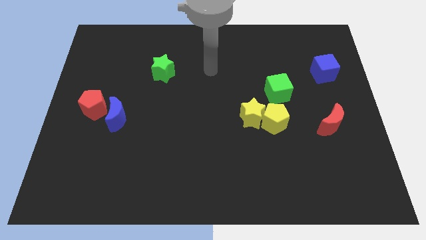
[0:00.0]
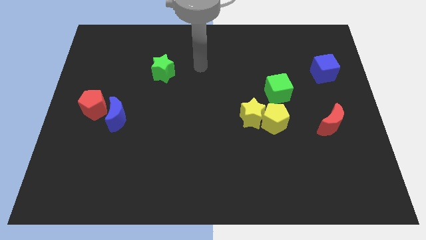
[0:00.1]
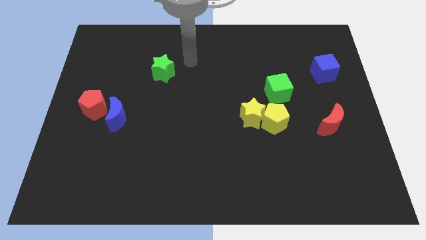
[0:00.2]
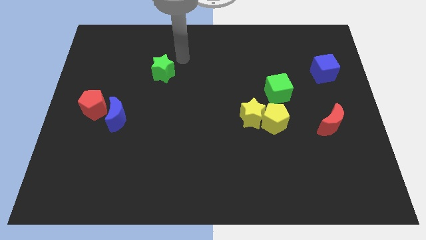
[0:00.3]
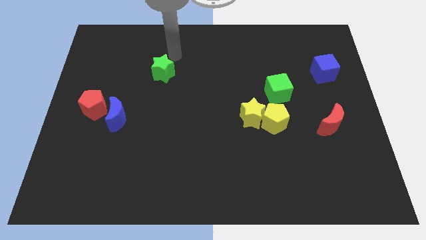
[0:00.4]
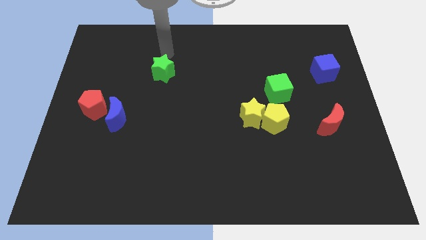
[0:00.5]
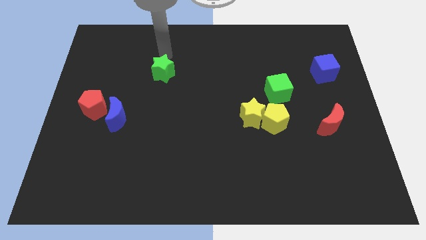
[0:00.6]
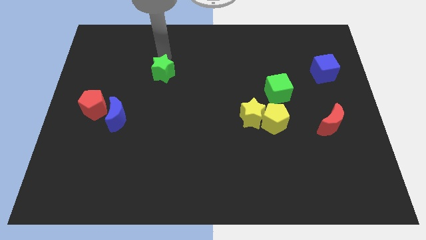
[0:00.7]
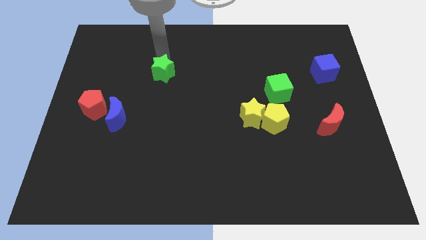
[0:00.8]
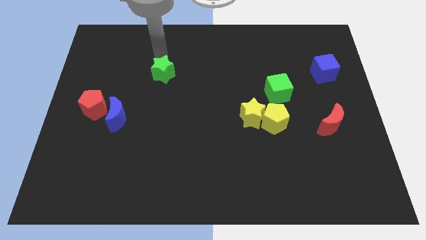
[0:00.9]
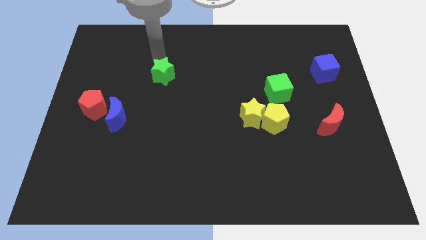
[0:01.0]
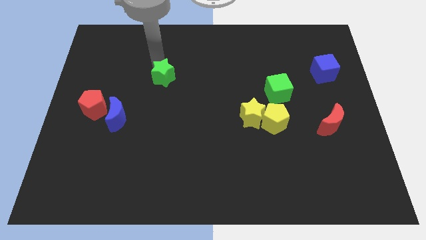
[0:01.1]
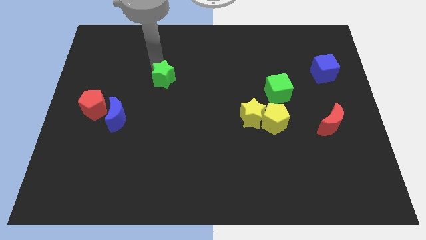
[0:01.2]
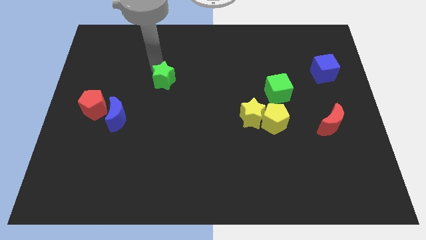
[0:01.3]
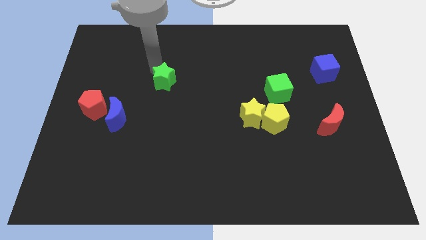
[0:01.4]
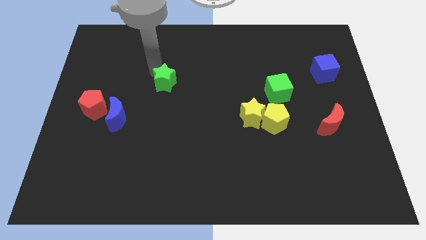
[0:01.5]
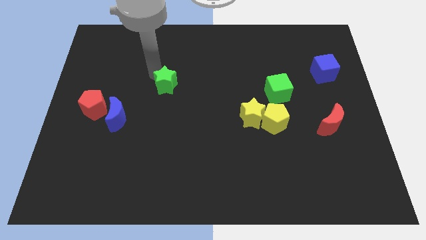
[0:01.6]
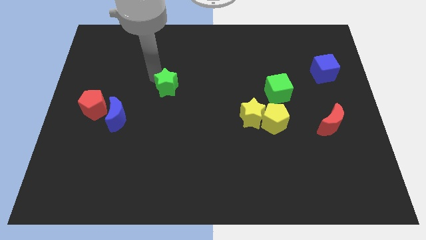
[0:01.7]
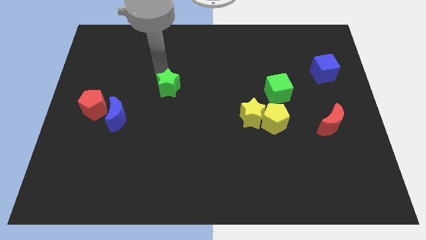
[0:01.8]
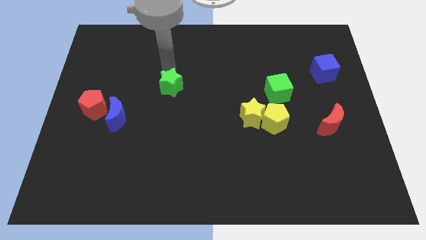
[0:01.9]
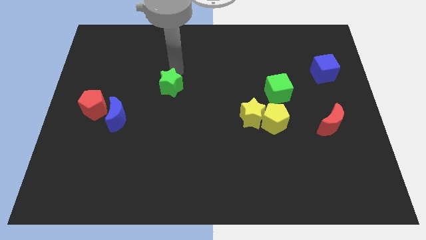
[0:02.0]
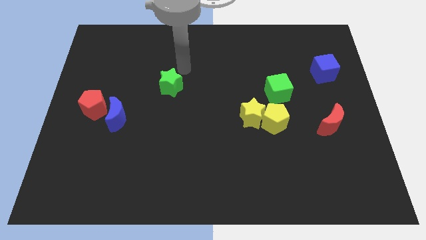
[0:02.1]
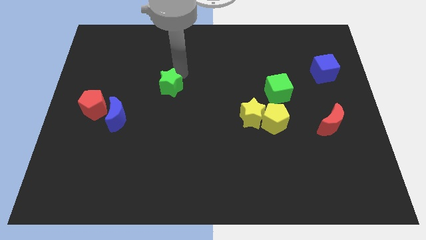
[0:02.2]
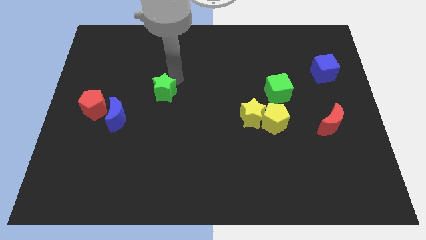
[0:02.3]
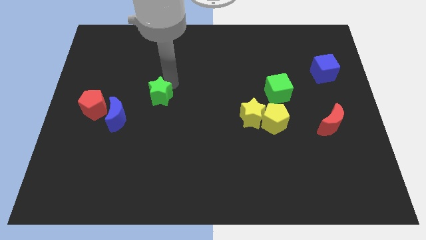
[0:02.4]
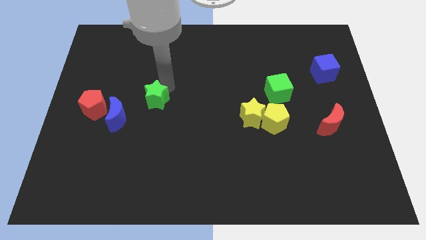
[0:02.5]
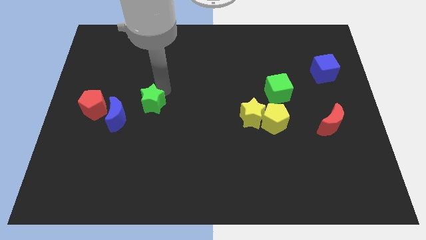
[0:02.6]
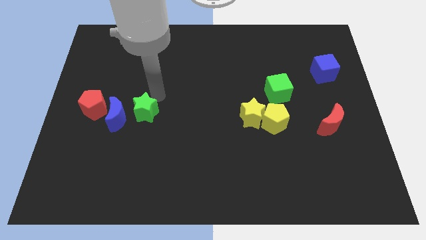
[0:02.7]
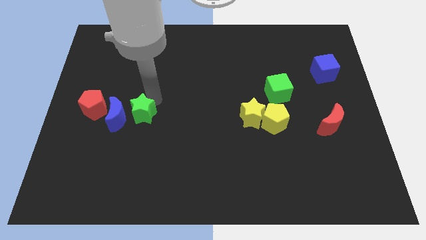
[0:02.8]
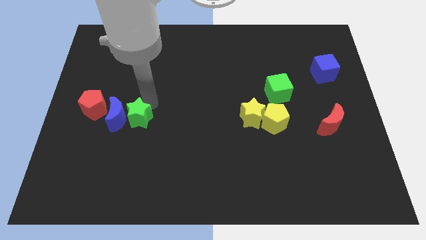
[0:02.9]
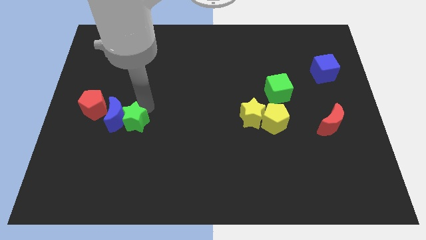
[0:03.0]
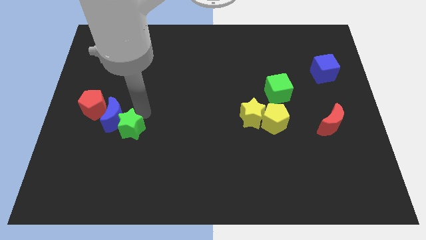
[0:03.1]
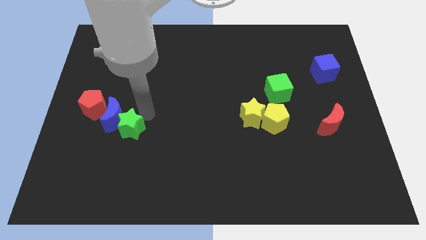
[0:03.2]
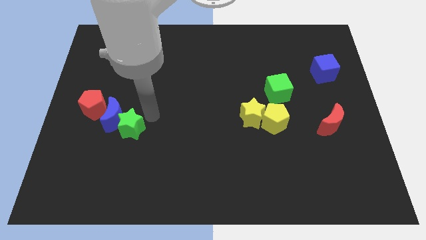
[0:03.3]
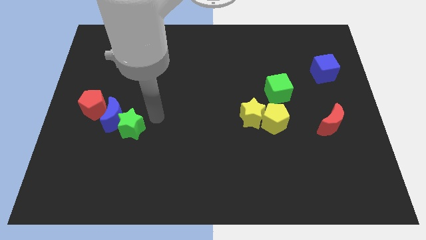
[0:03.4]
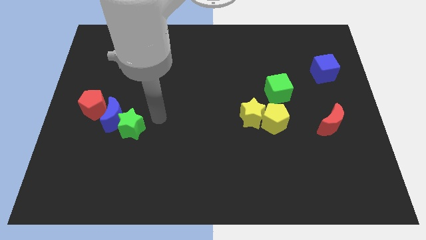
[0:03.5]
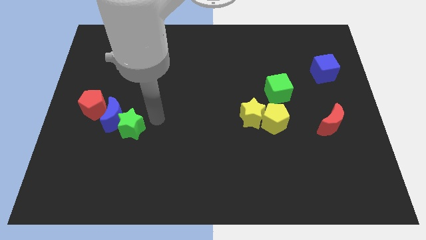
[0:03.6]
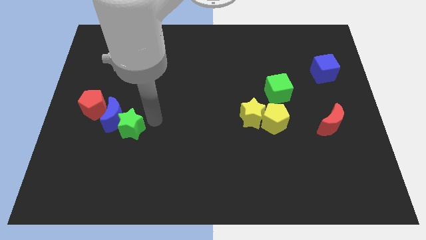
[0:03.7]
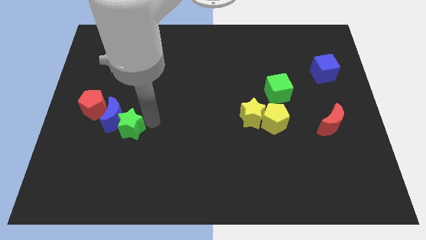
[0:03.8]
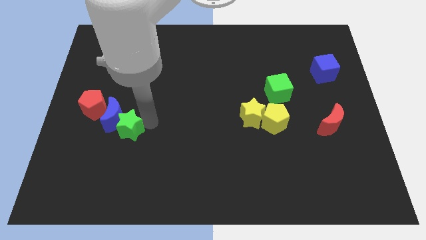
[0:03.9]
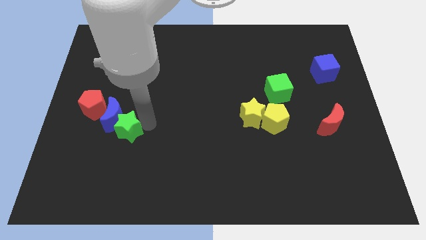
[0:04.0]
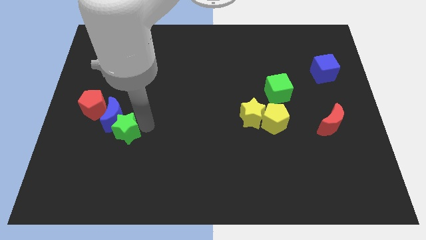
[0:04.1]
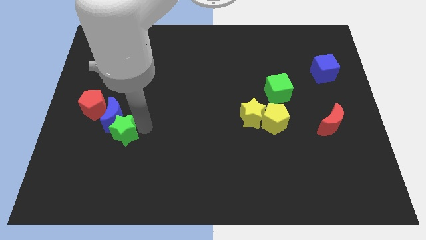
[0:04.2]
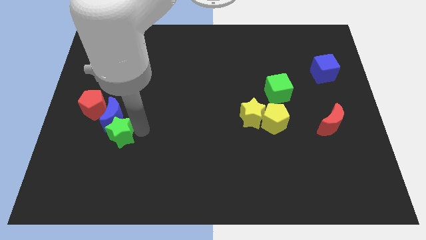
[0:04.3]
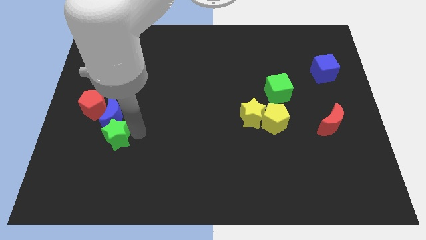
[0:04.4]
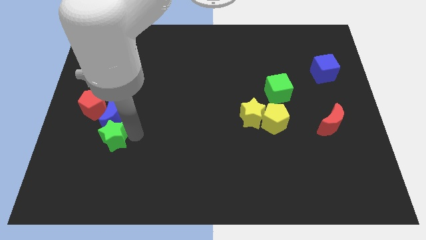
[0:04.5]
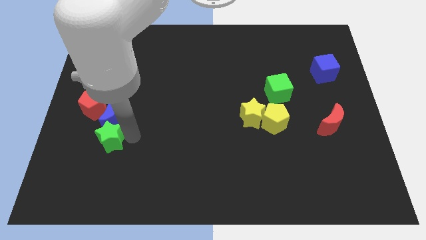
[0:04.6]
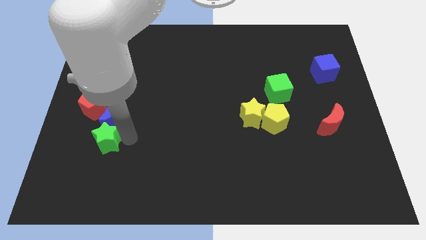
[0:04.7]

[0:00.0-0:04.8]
put the green star below the red pentagon

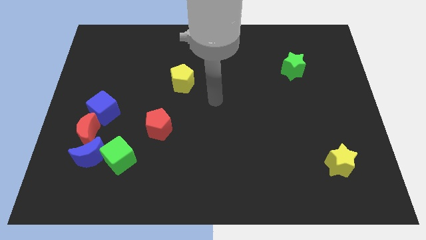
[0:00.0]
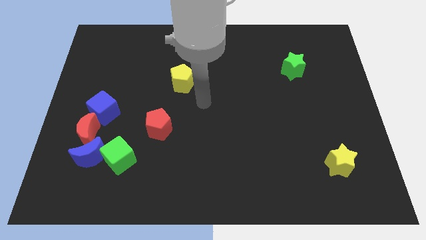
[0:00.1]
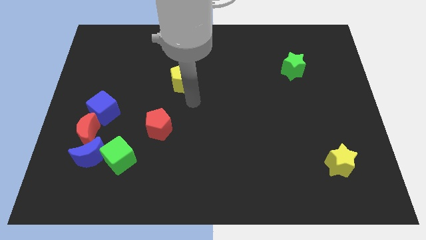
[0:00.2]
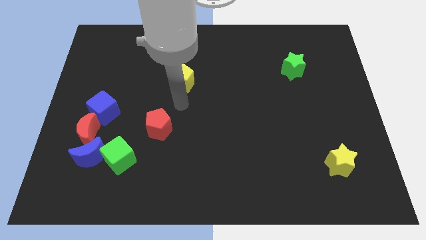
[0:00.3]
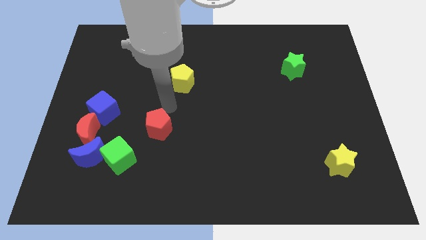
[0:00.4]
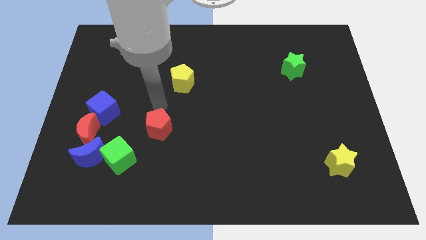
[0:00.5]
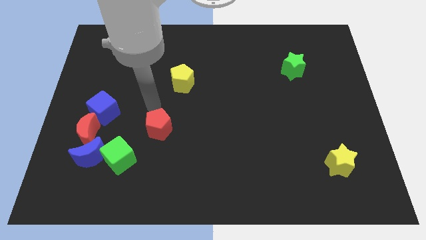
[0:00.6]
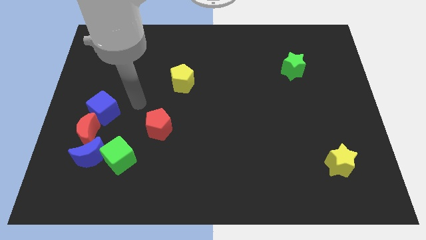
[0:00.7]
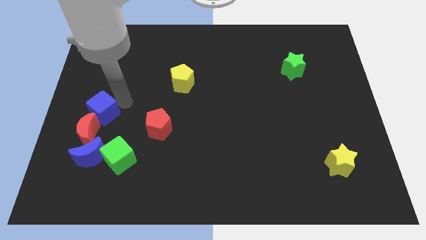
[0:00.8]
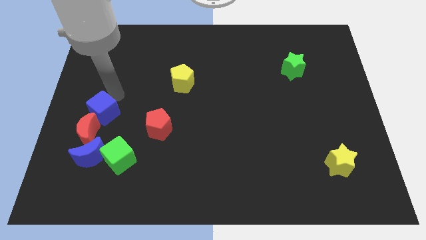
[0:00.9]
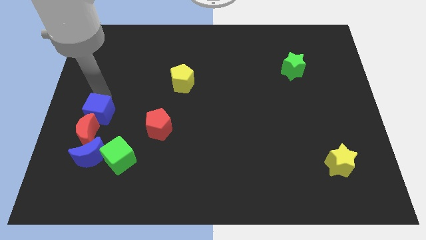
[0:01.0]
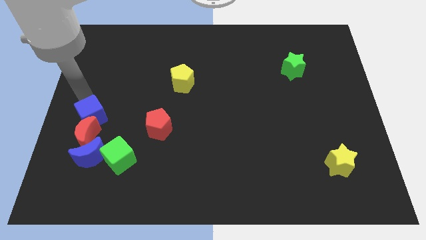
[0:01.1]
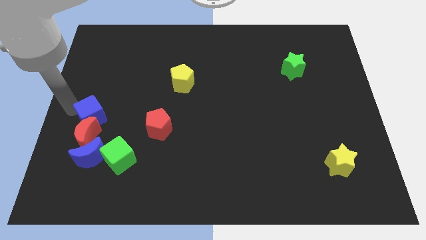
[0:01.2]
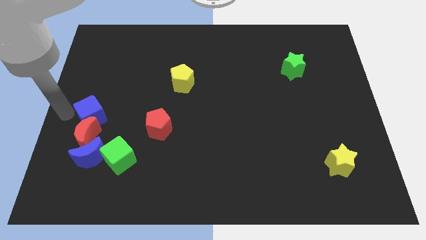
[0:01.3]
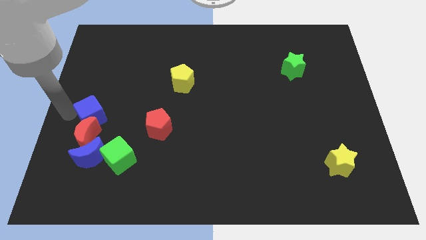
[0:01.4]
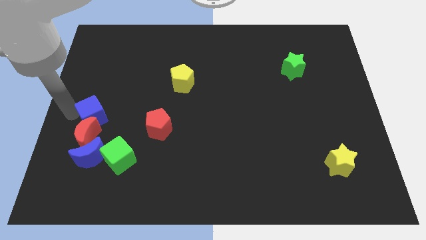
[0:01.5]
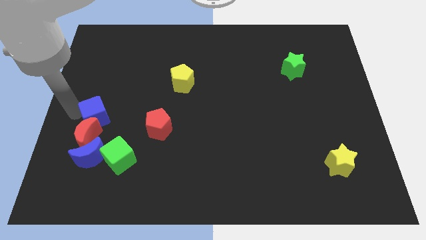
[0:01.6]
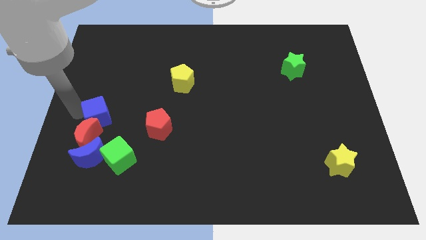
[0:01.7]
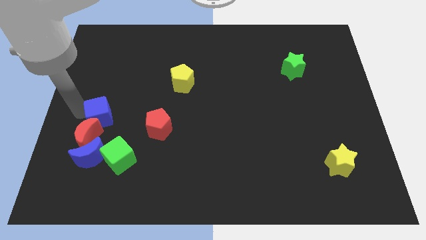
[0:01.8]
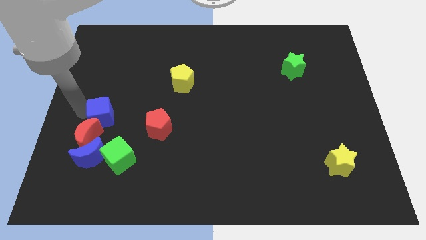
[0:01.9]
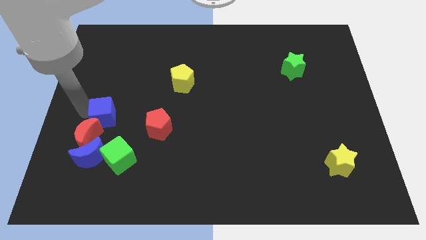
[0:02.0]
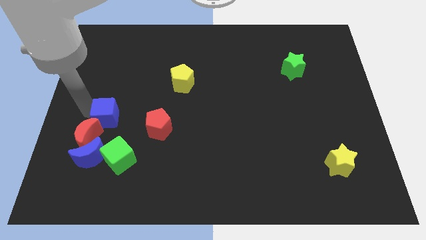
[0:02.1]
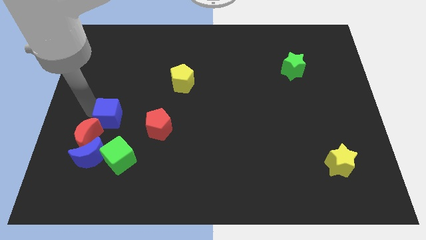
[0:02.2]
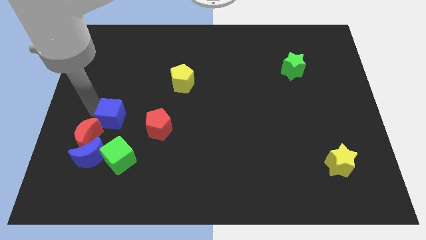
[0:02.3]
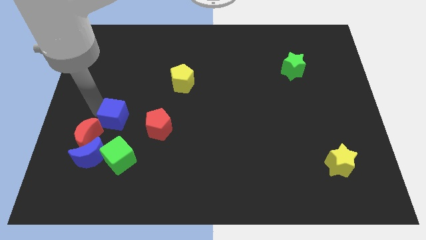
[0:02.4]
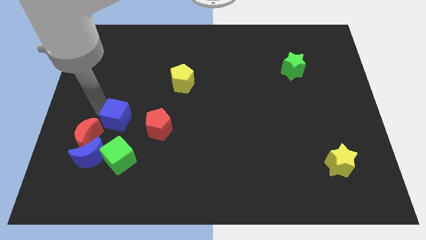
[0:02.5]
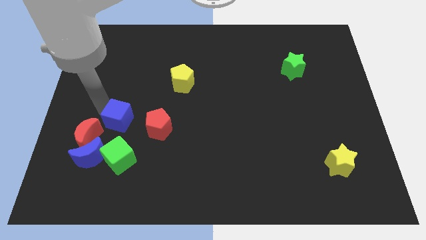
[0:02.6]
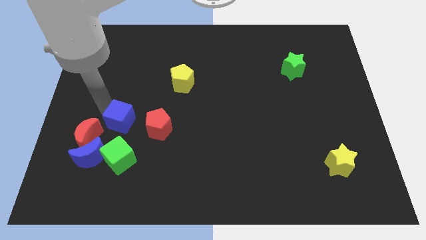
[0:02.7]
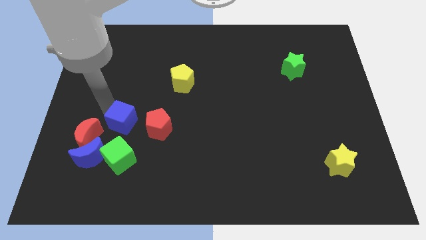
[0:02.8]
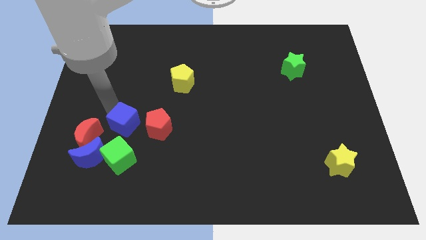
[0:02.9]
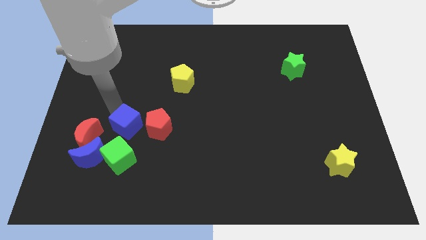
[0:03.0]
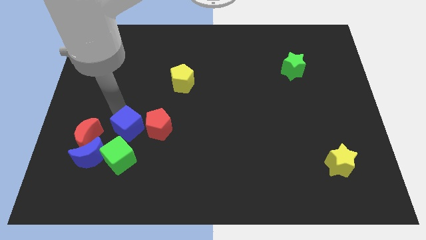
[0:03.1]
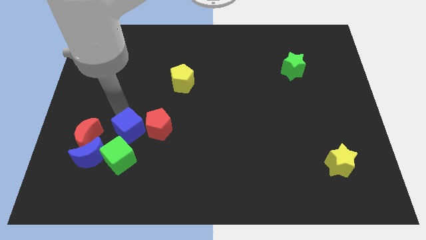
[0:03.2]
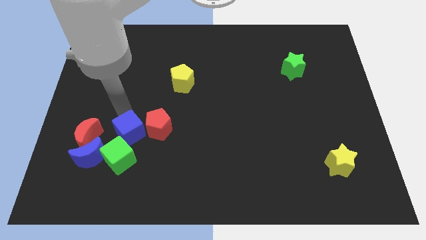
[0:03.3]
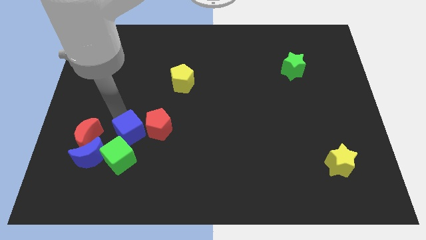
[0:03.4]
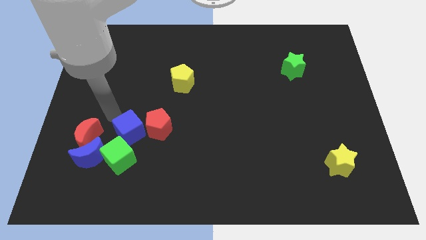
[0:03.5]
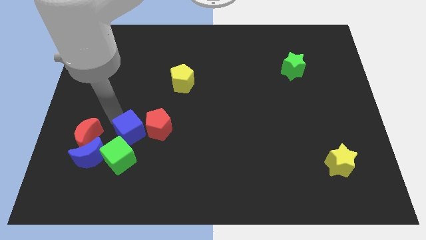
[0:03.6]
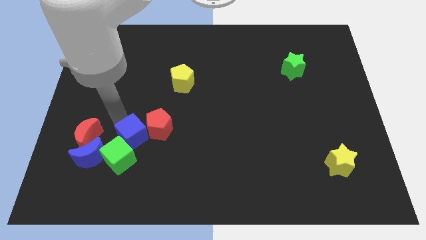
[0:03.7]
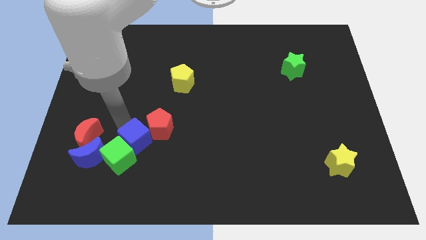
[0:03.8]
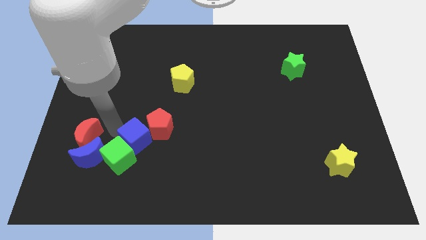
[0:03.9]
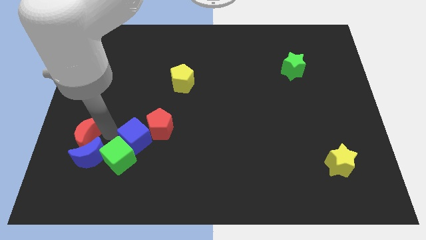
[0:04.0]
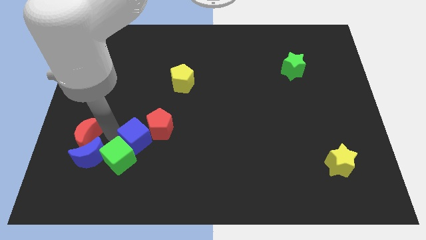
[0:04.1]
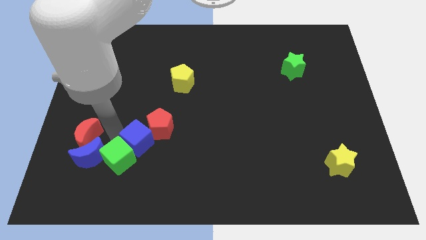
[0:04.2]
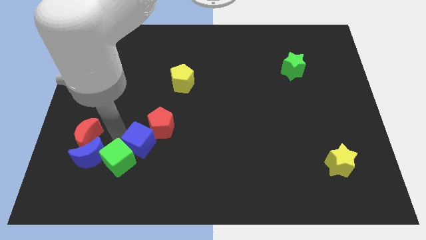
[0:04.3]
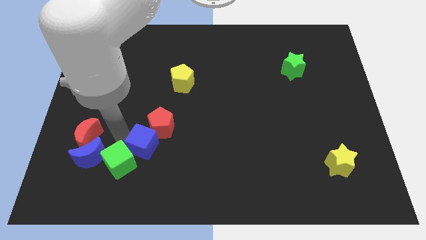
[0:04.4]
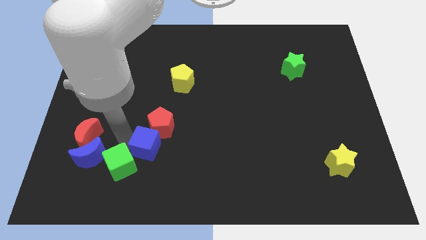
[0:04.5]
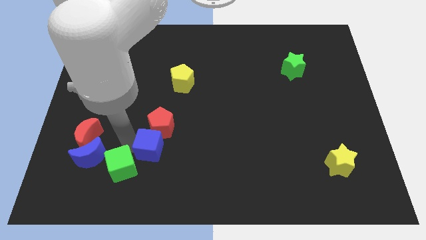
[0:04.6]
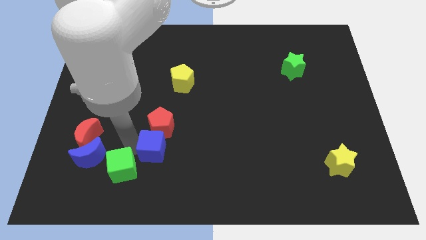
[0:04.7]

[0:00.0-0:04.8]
move the blue cube to the bottom right of the red pentagon
